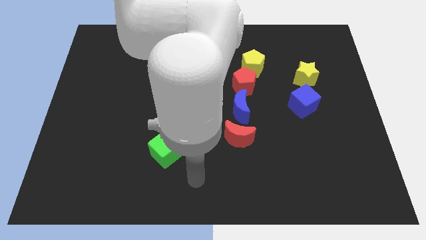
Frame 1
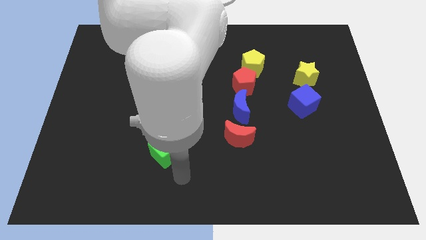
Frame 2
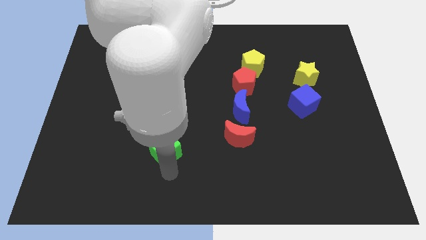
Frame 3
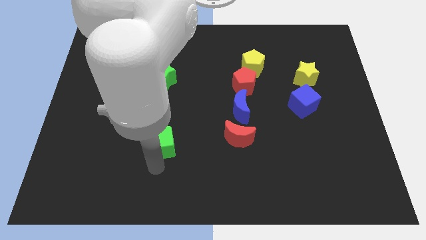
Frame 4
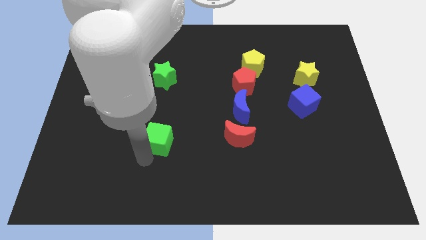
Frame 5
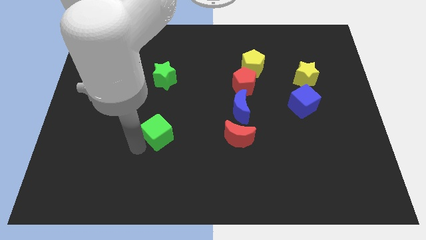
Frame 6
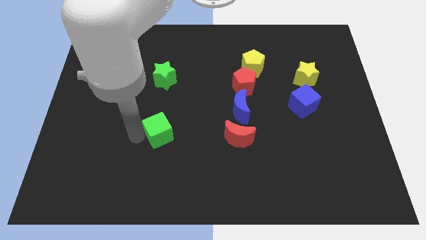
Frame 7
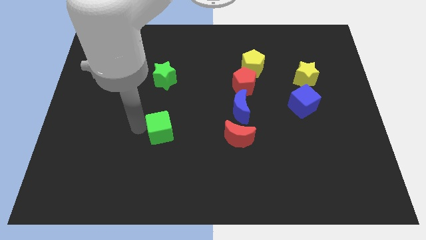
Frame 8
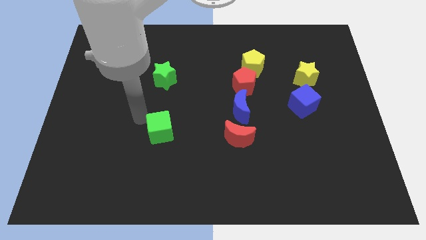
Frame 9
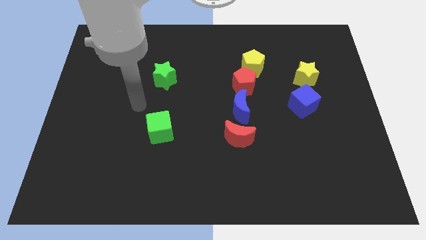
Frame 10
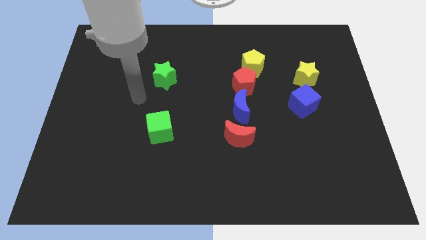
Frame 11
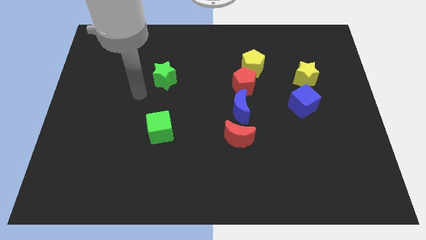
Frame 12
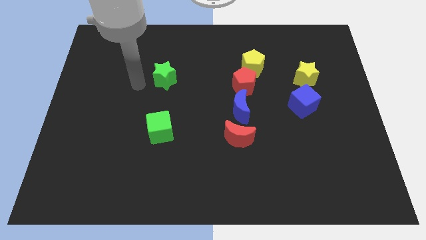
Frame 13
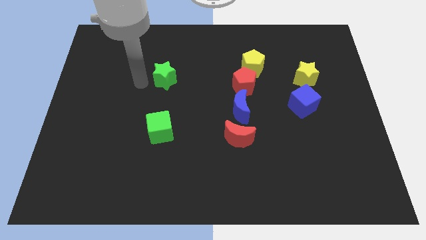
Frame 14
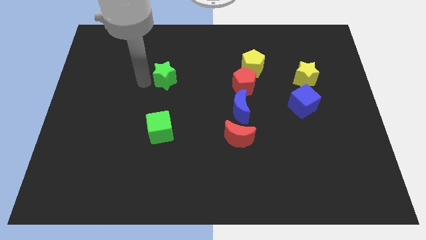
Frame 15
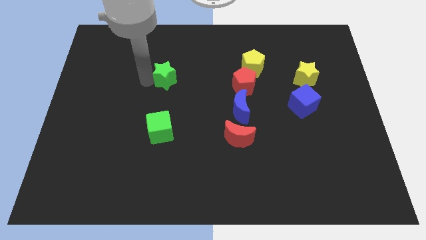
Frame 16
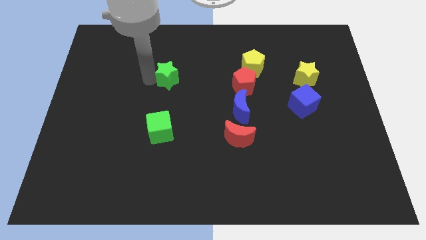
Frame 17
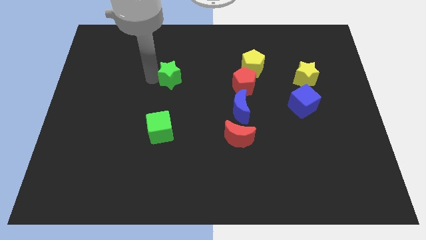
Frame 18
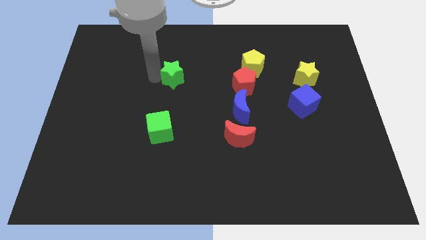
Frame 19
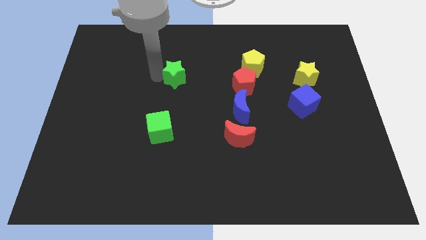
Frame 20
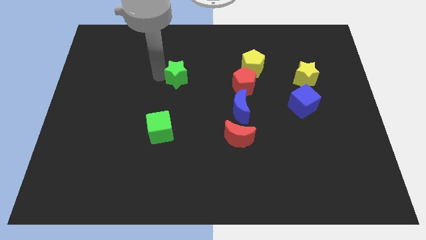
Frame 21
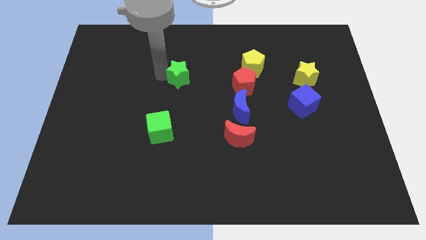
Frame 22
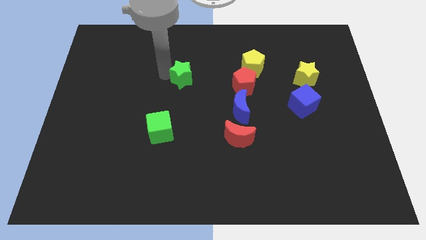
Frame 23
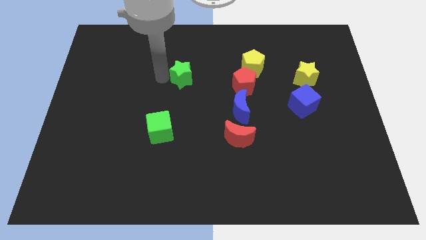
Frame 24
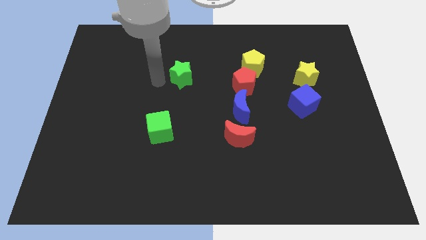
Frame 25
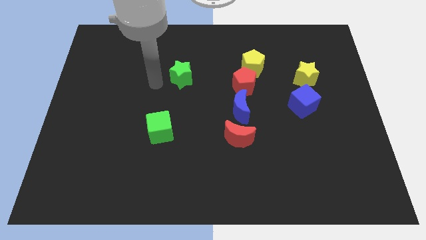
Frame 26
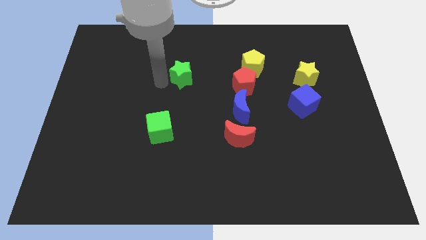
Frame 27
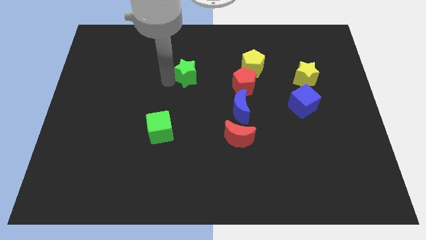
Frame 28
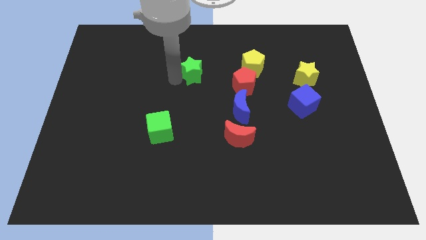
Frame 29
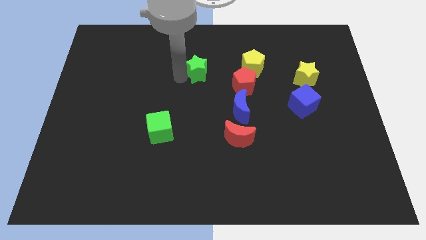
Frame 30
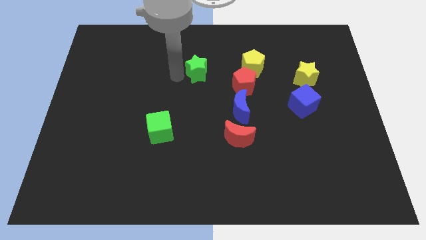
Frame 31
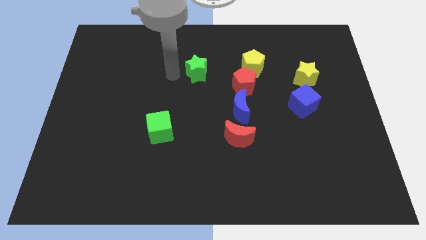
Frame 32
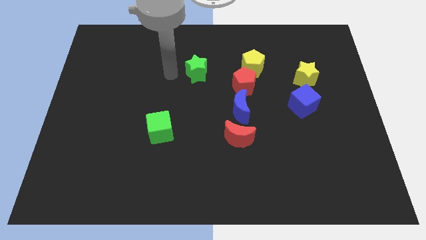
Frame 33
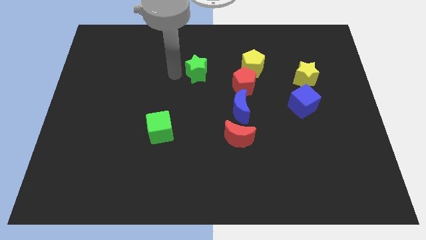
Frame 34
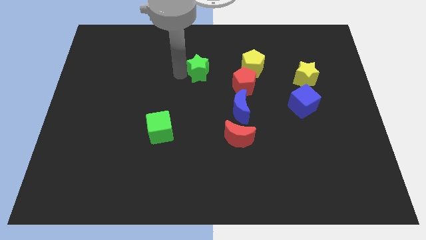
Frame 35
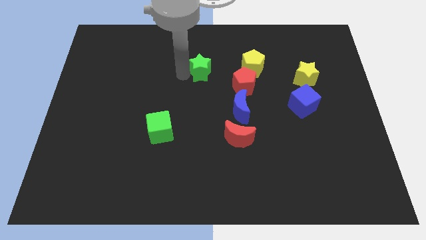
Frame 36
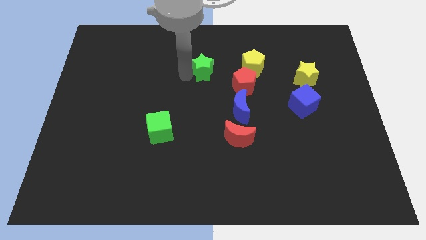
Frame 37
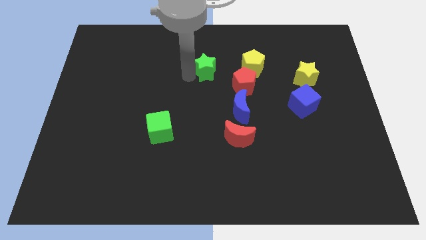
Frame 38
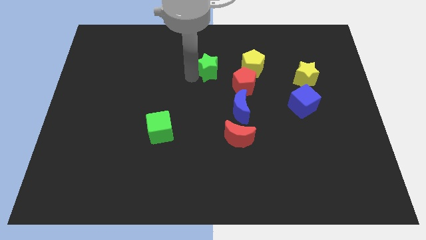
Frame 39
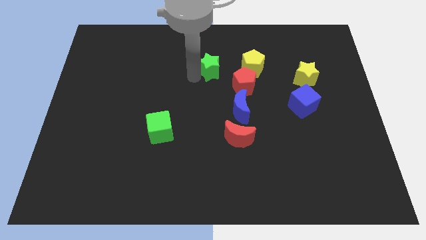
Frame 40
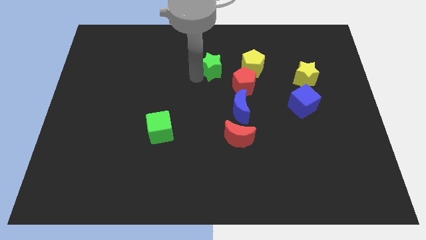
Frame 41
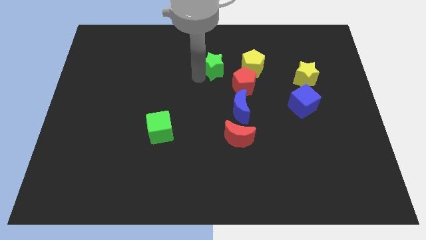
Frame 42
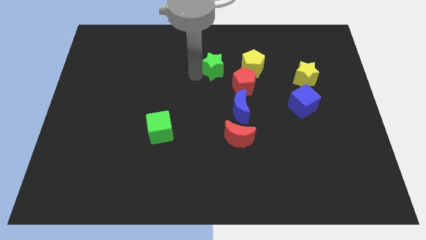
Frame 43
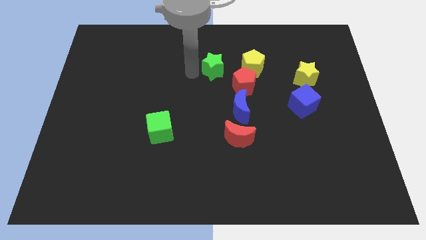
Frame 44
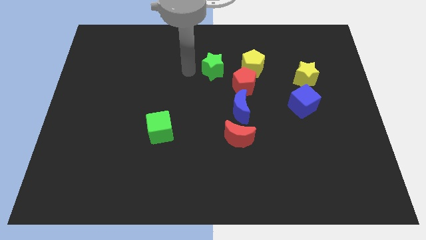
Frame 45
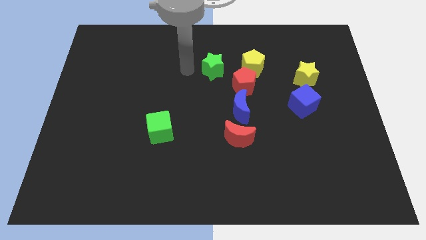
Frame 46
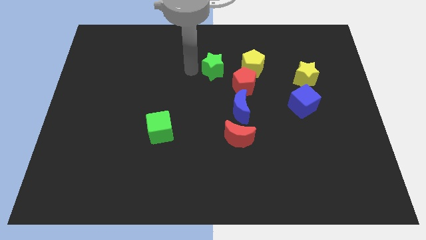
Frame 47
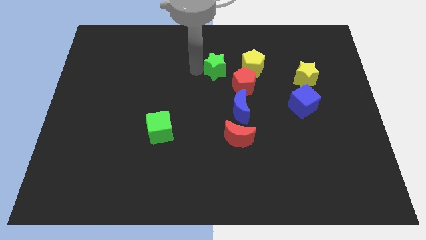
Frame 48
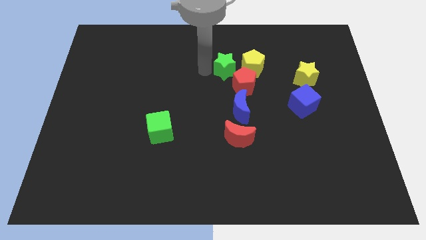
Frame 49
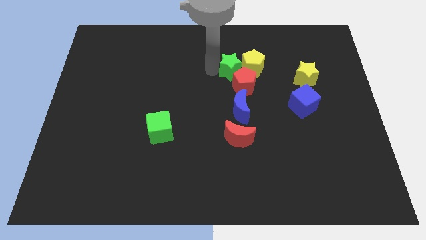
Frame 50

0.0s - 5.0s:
move the green star close to the yellow pentagon

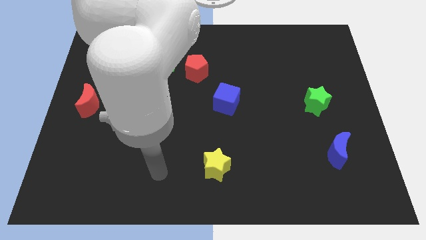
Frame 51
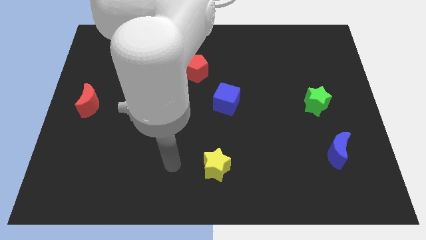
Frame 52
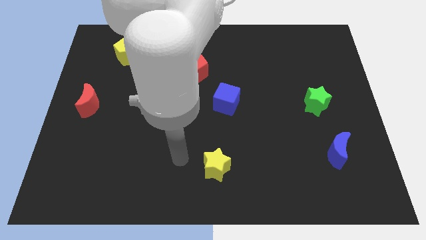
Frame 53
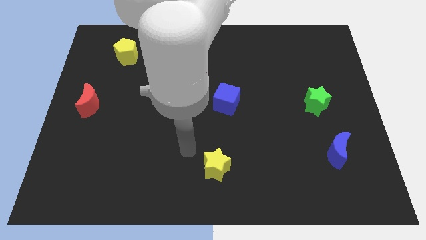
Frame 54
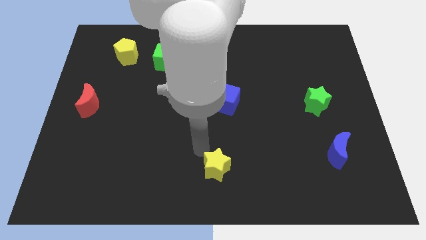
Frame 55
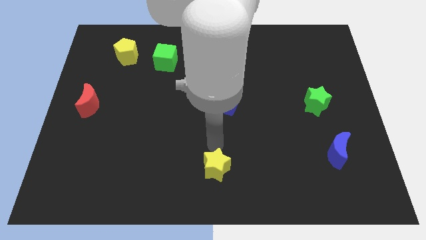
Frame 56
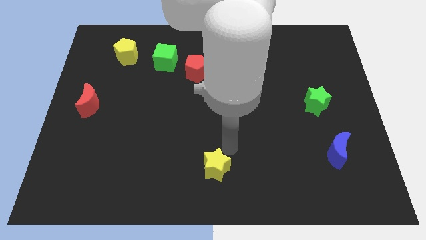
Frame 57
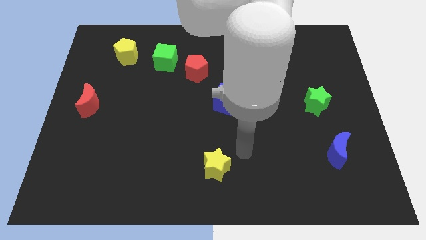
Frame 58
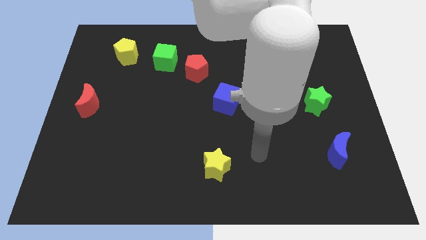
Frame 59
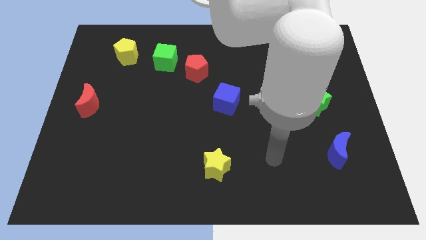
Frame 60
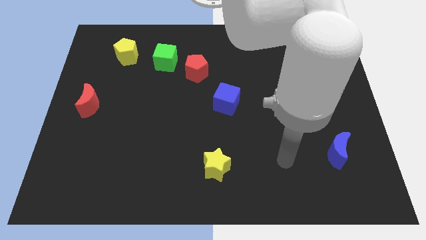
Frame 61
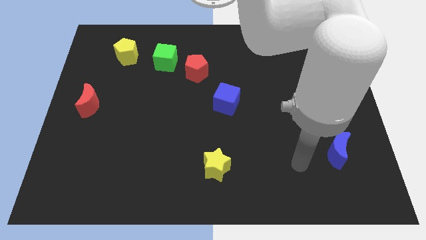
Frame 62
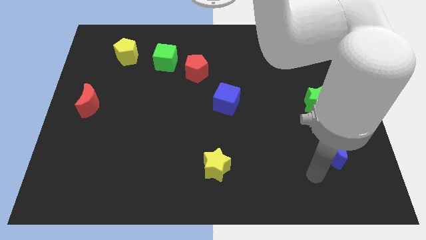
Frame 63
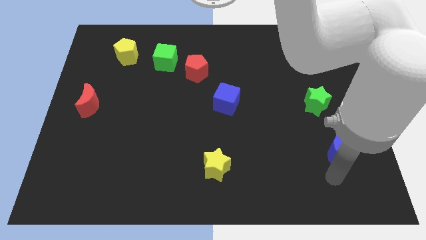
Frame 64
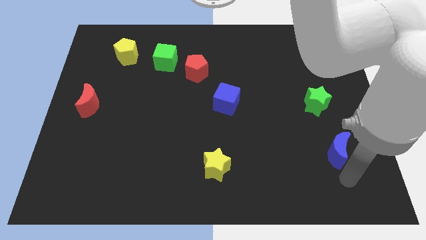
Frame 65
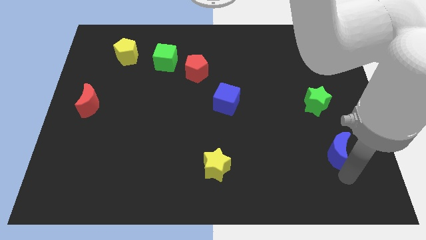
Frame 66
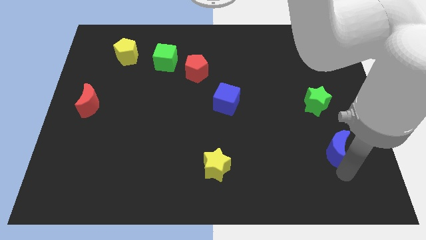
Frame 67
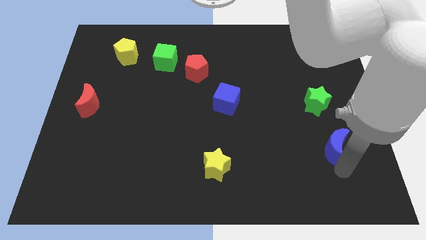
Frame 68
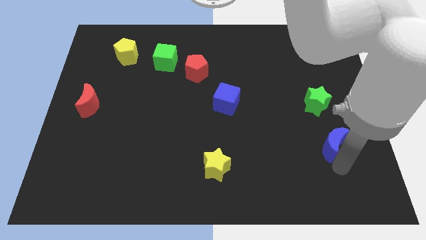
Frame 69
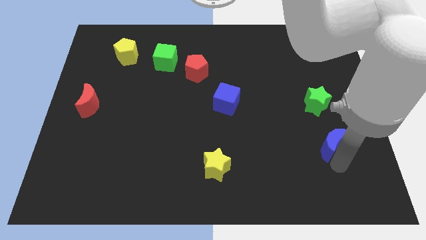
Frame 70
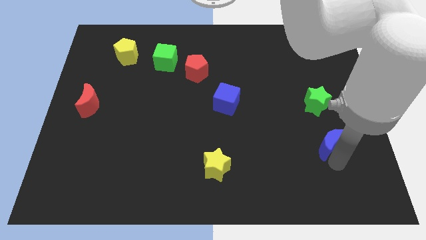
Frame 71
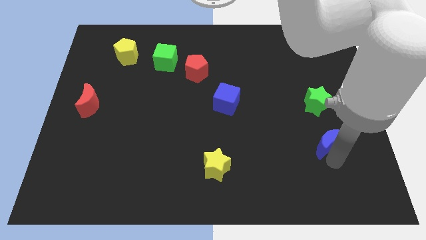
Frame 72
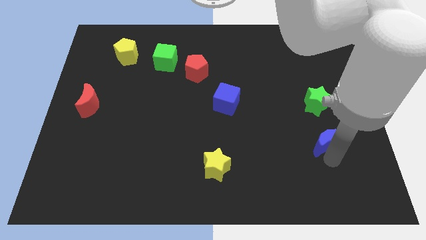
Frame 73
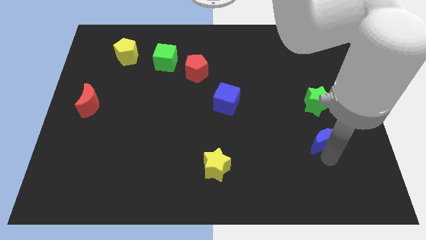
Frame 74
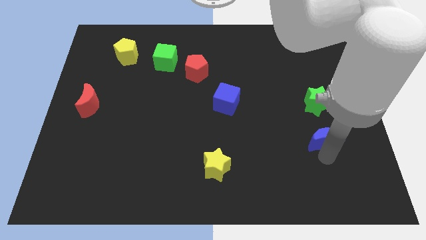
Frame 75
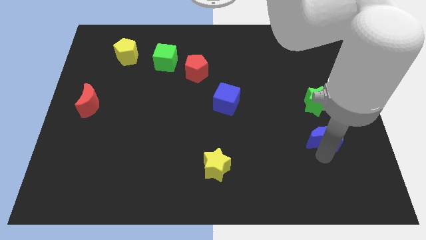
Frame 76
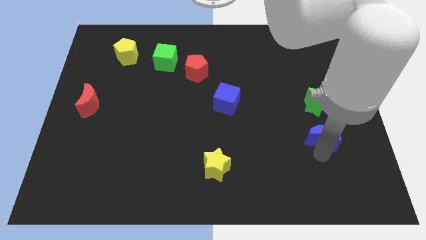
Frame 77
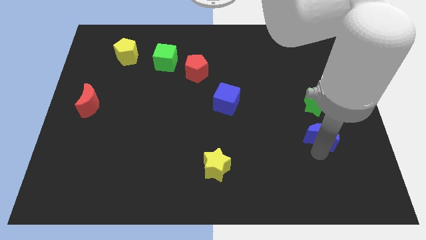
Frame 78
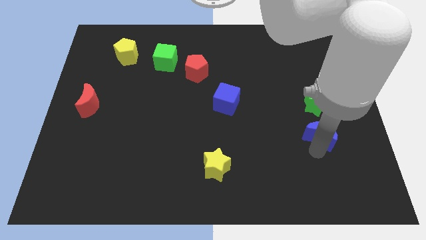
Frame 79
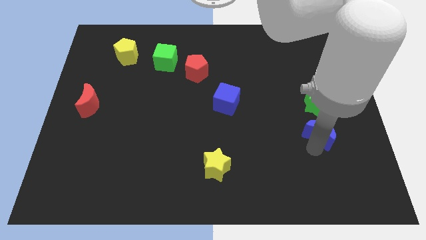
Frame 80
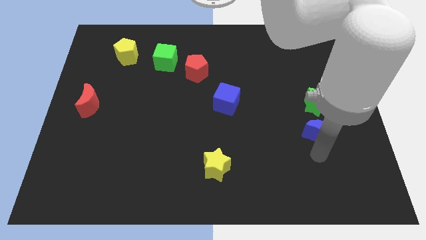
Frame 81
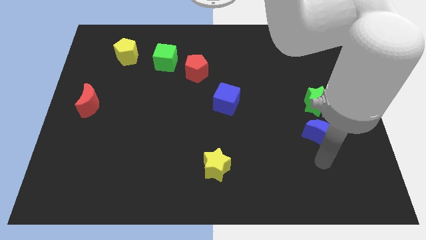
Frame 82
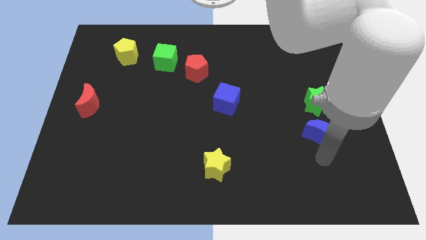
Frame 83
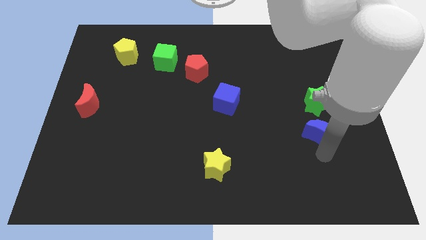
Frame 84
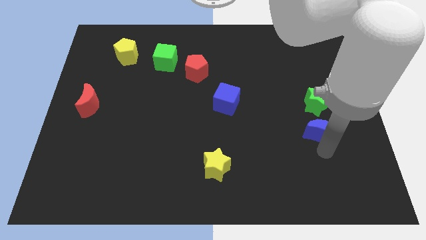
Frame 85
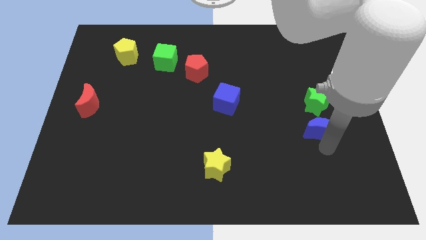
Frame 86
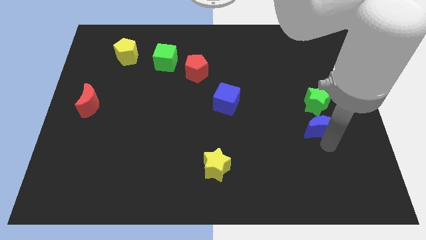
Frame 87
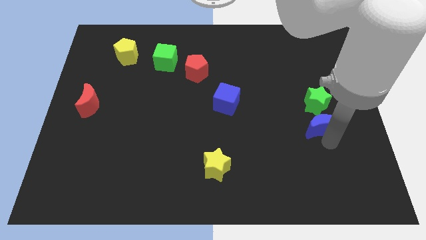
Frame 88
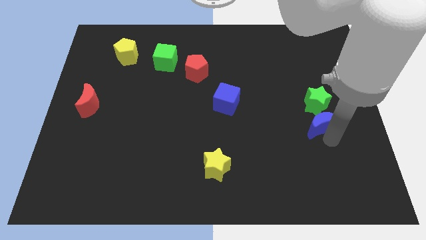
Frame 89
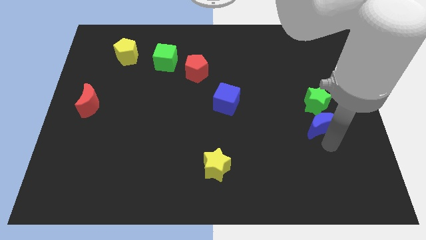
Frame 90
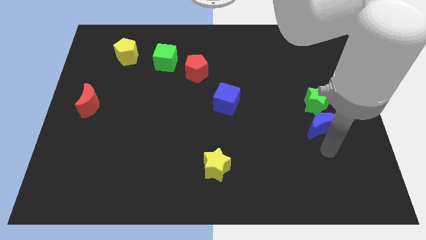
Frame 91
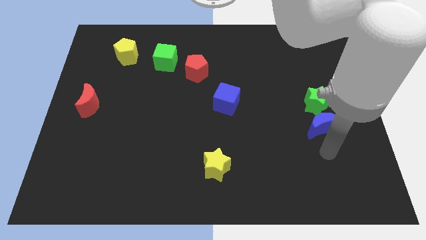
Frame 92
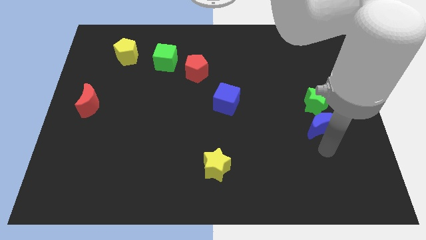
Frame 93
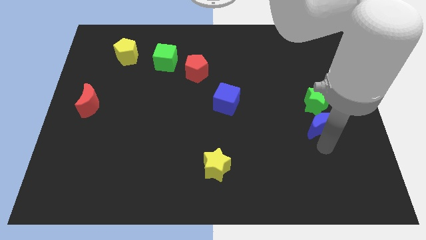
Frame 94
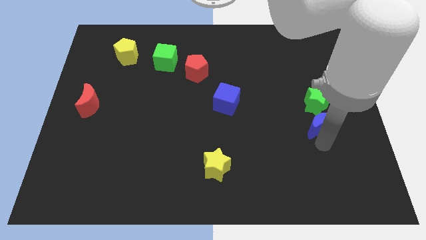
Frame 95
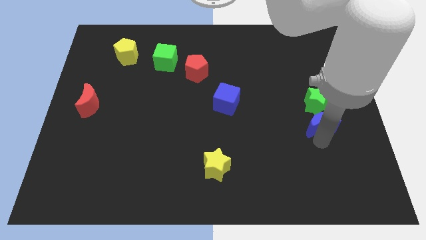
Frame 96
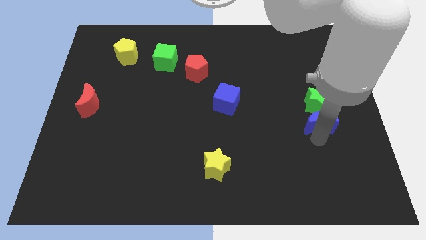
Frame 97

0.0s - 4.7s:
put the blue moon close to the green star
